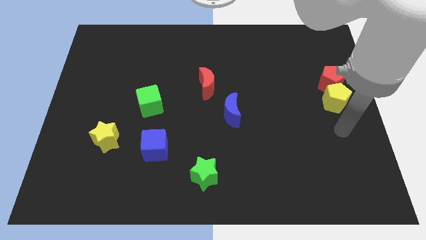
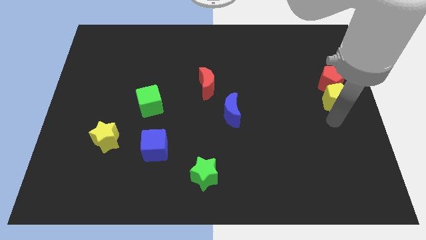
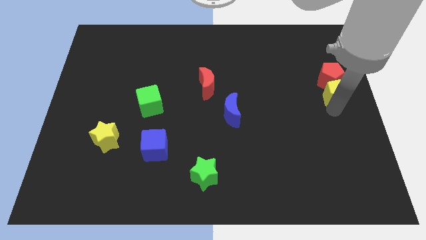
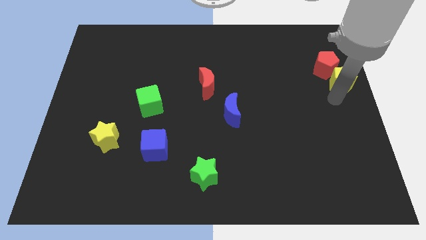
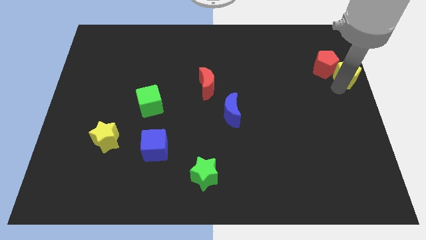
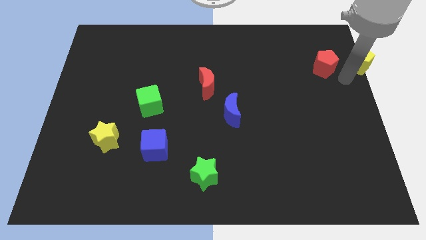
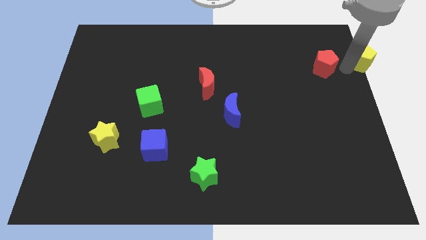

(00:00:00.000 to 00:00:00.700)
separate the red pentagon from the yellow pentagon

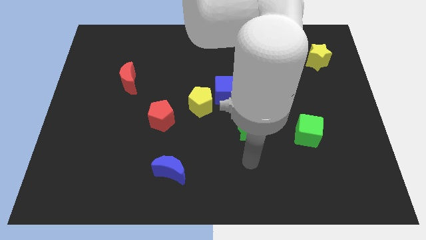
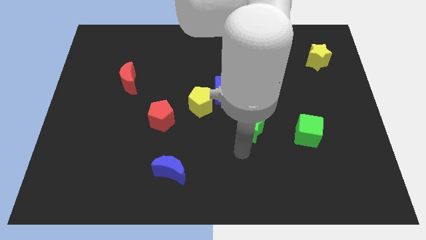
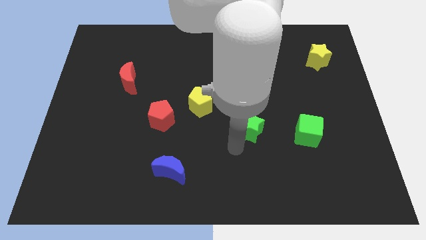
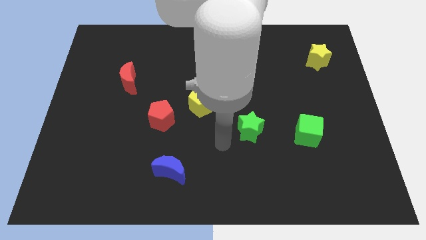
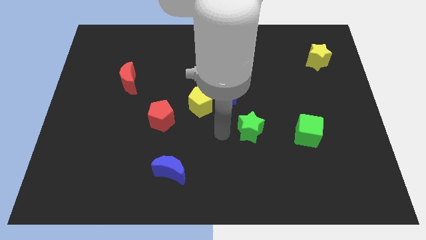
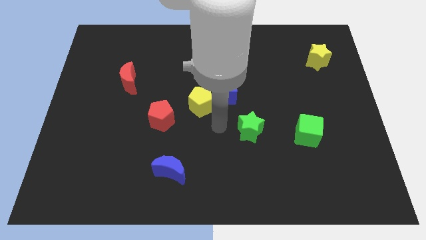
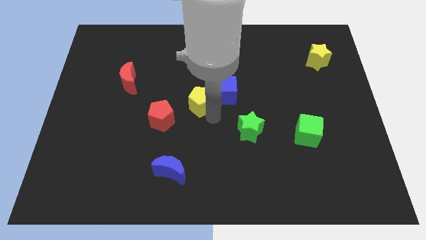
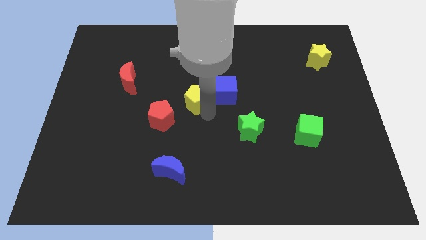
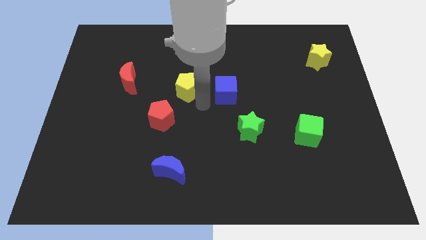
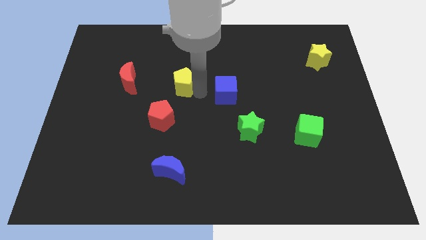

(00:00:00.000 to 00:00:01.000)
pull the blue cube apart from the yellow pentagon

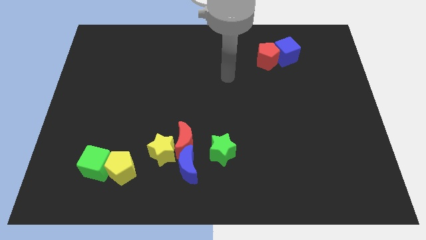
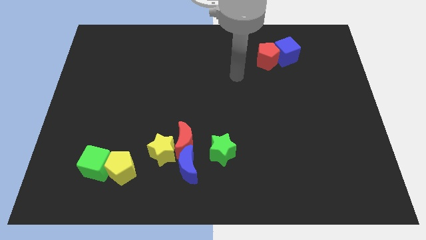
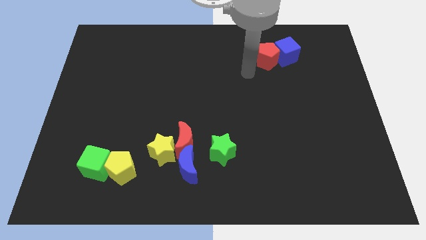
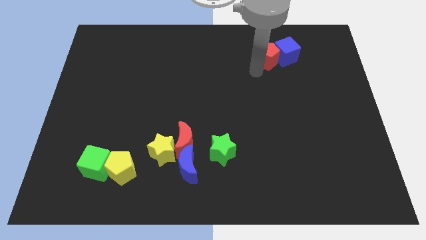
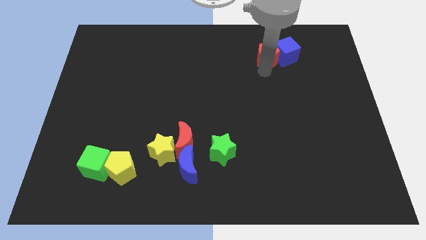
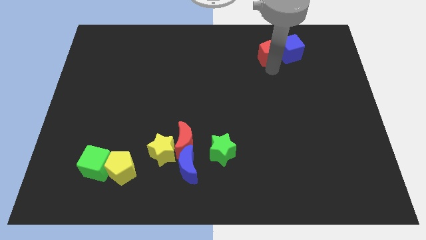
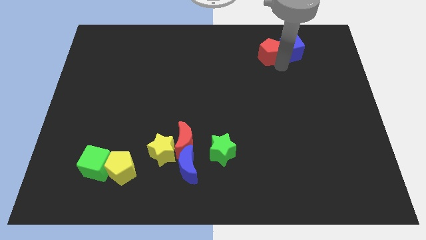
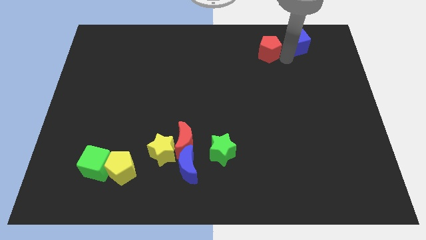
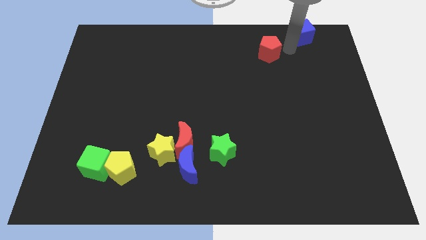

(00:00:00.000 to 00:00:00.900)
pull the red pentagon apart from the blue cube

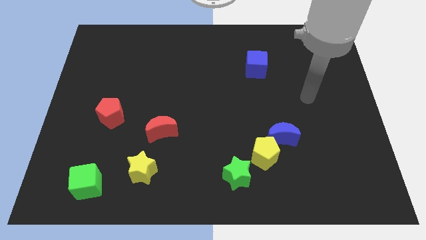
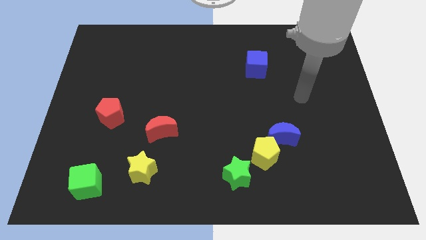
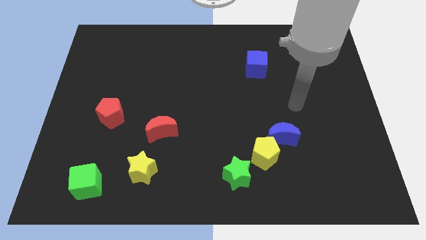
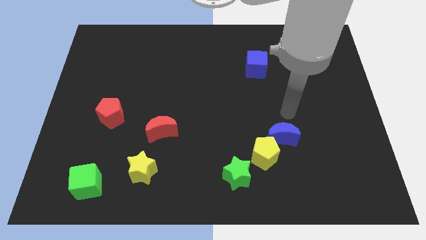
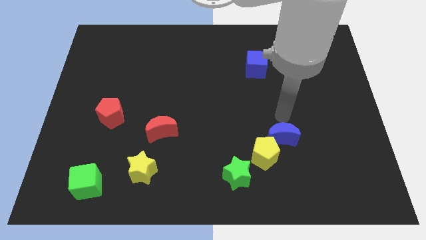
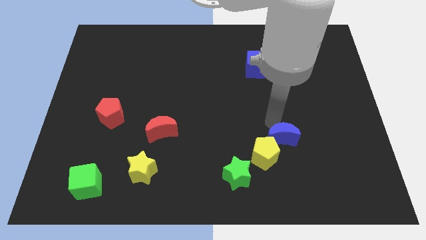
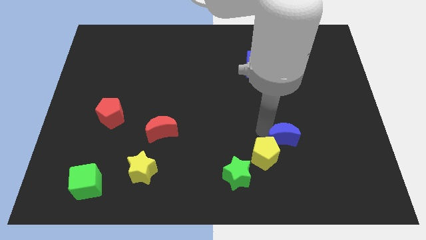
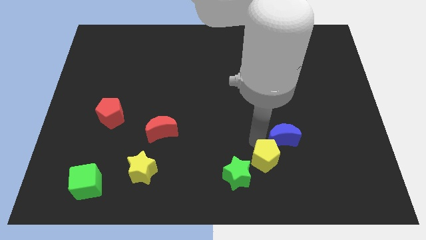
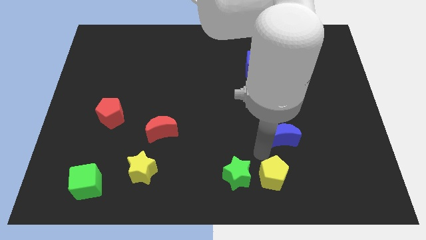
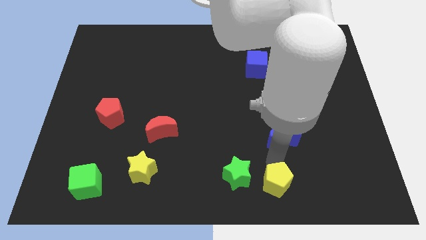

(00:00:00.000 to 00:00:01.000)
separate the blue moon from the yellow pentagon

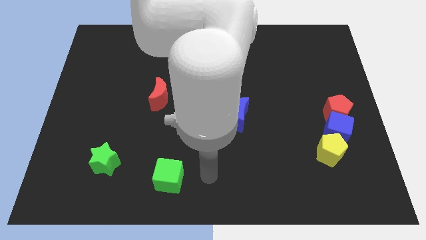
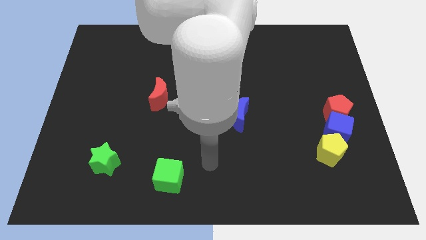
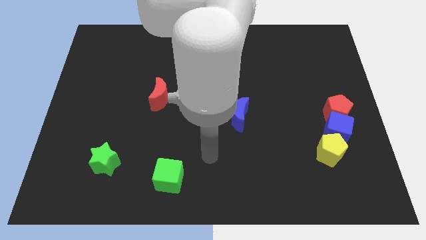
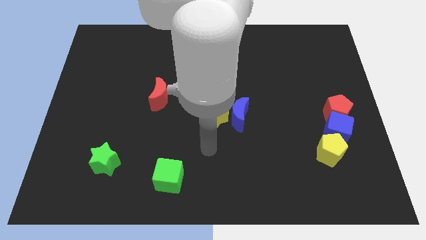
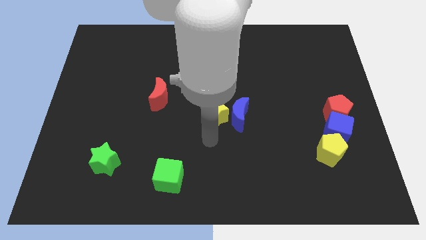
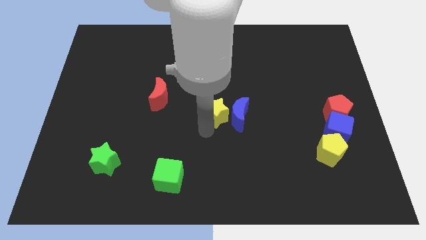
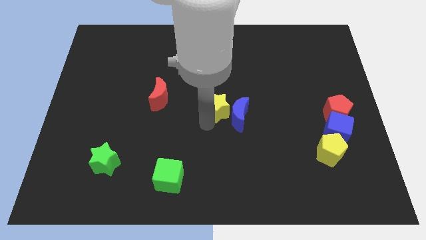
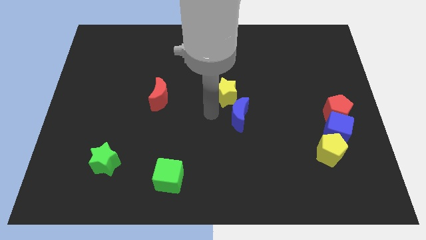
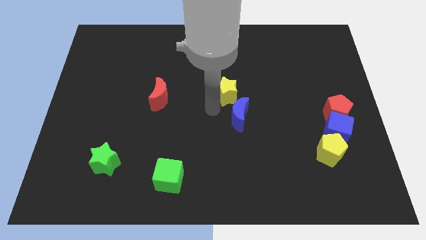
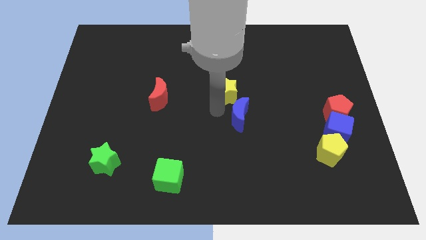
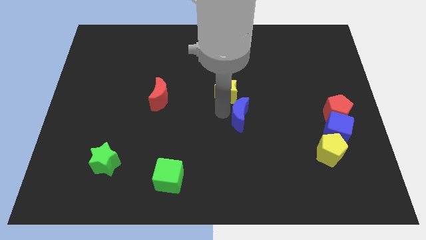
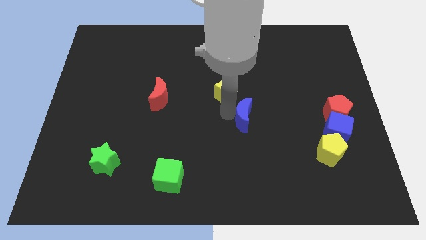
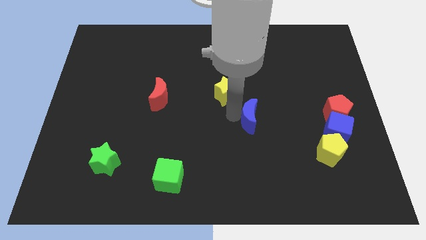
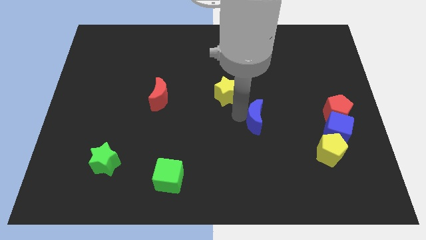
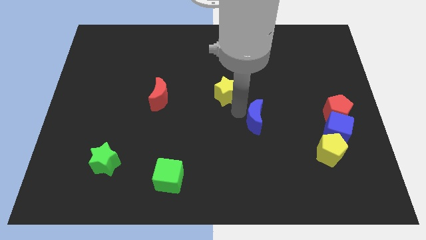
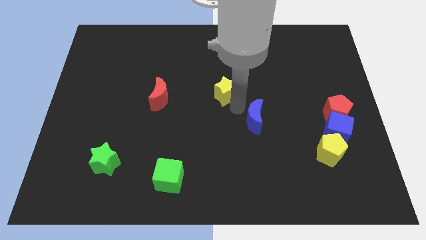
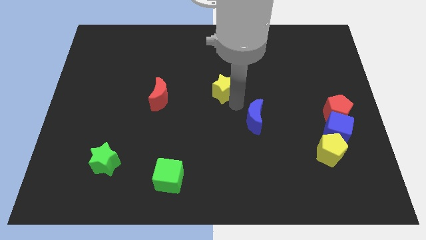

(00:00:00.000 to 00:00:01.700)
separate the blue moon from the yellow star

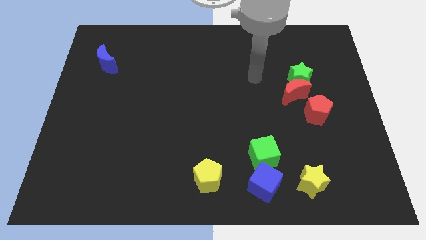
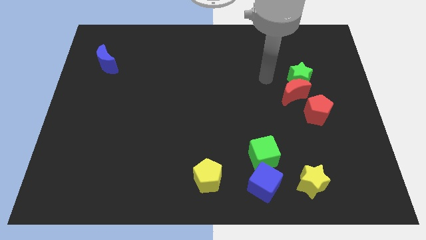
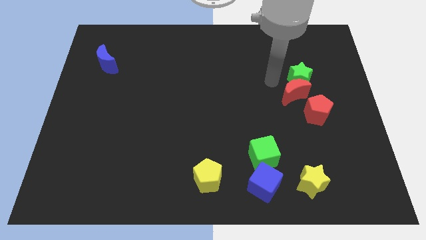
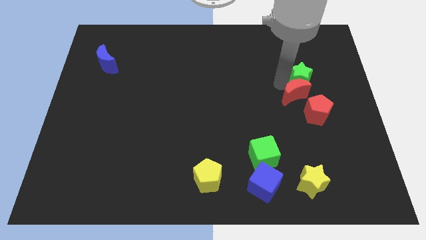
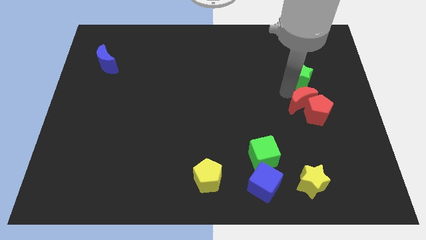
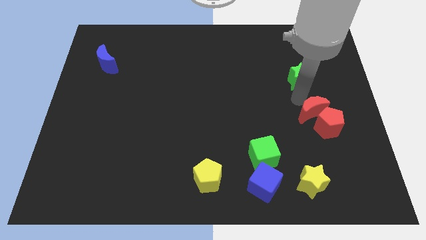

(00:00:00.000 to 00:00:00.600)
separate the green star from the red moon

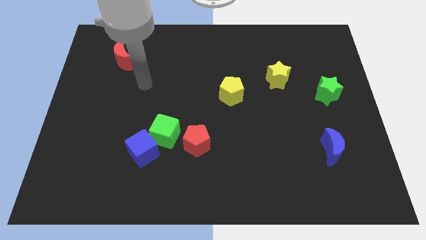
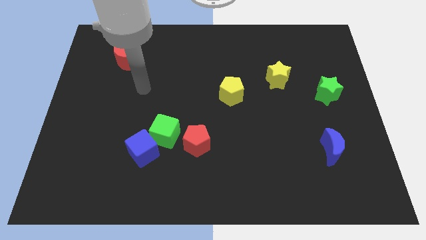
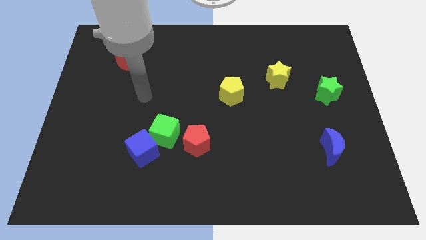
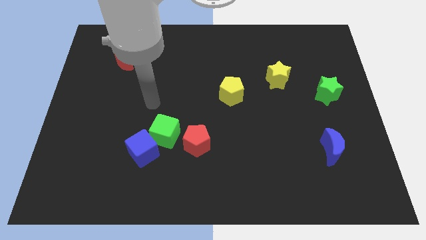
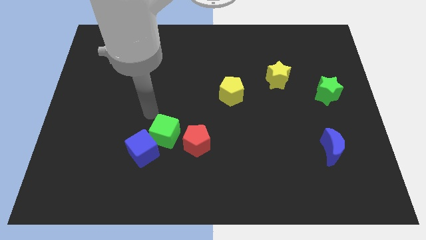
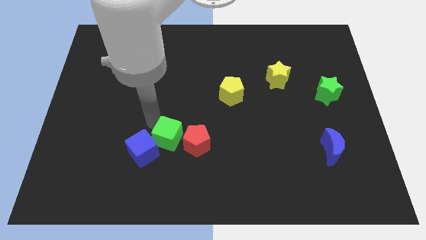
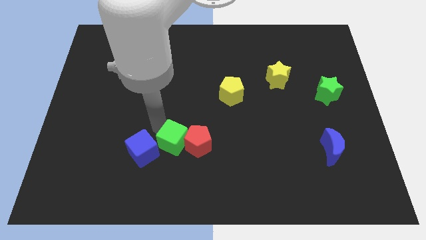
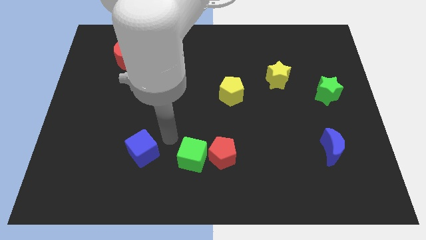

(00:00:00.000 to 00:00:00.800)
pull the blue cube apart from the green cube

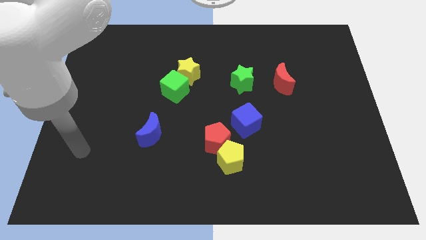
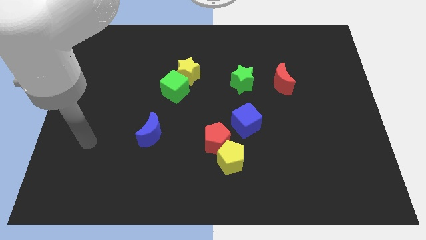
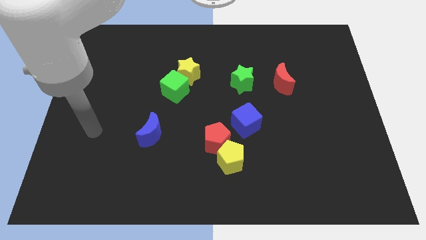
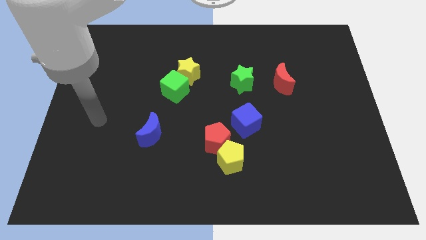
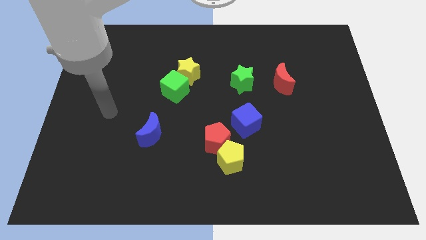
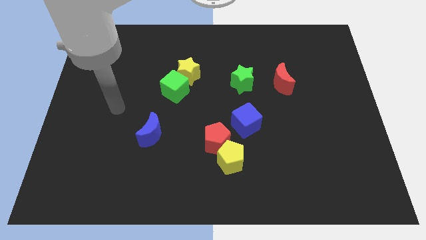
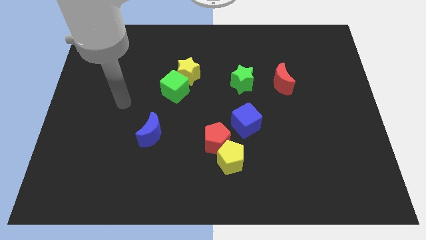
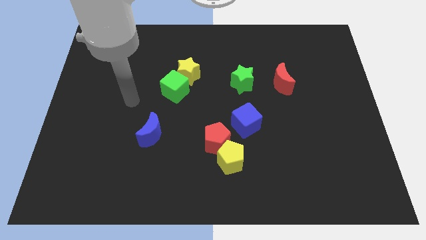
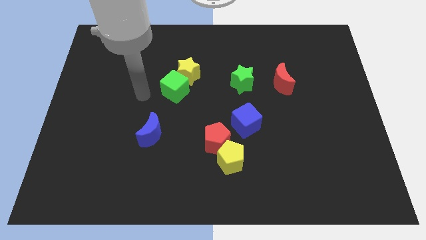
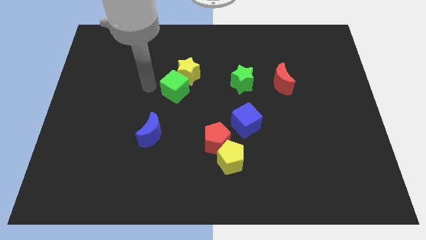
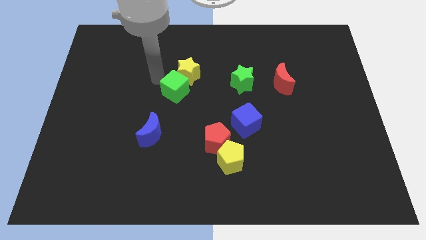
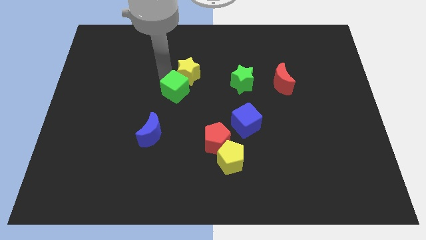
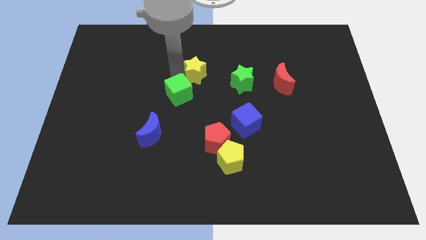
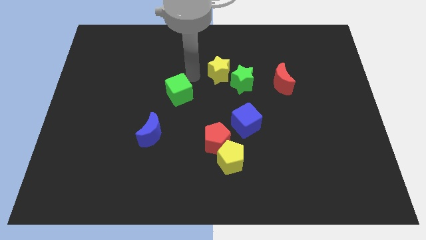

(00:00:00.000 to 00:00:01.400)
pull the green cube apart from the yellow star

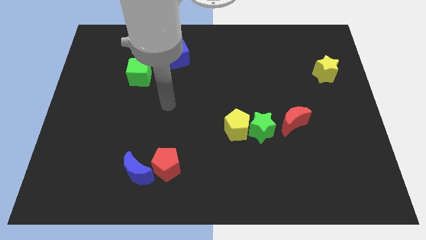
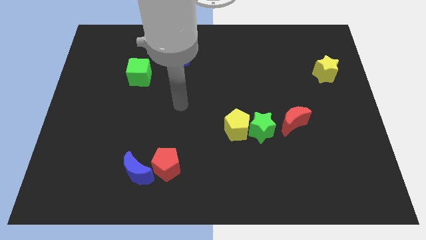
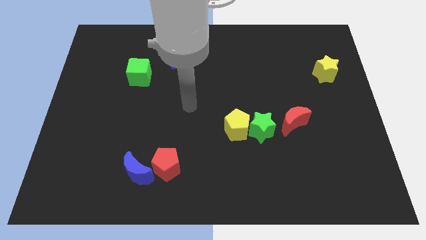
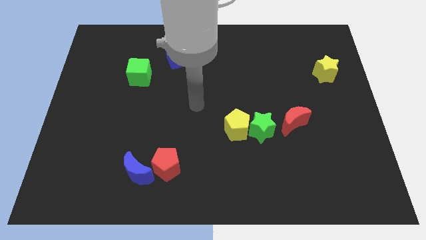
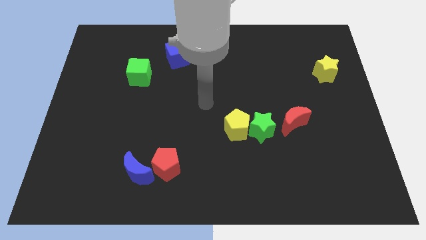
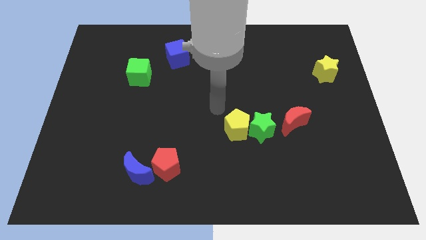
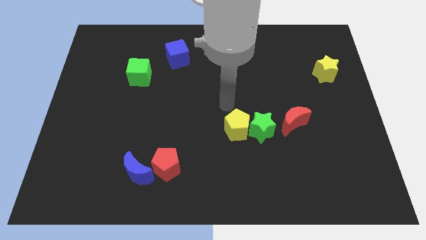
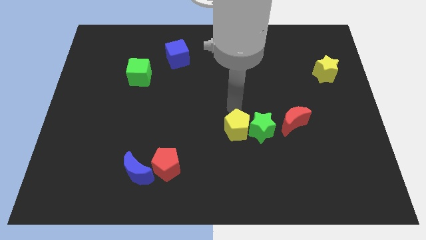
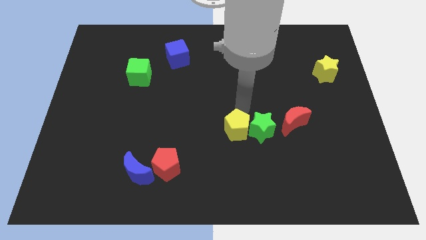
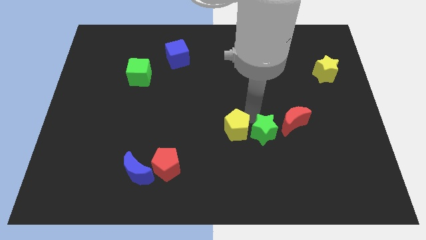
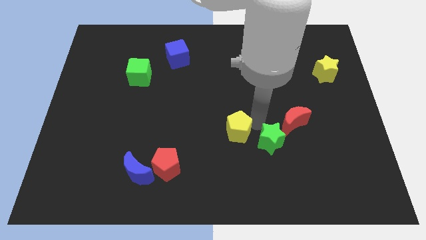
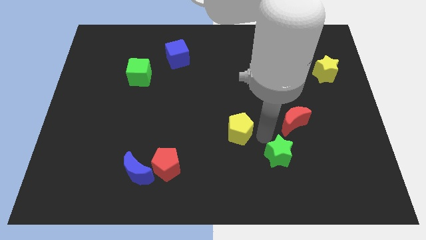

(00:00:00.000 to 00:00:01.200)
pull the yellow pentagon apart from the green star
